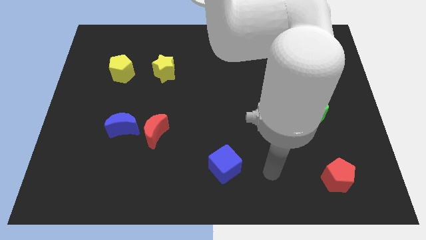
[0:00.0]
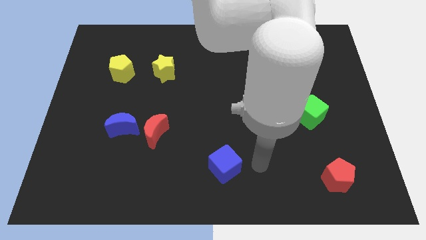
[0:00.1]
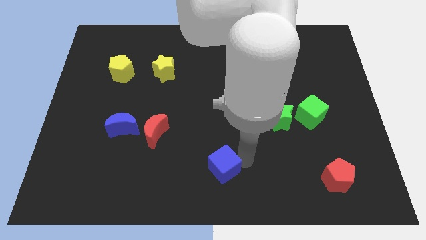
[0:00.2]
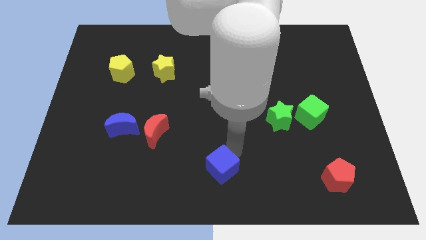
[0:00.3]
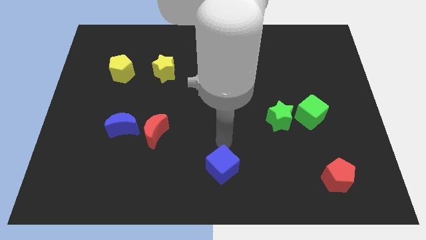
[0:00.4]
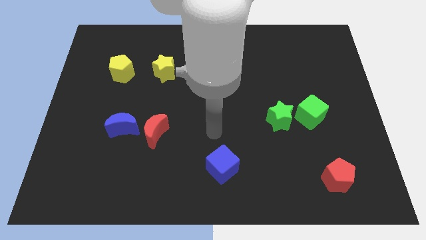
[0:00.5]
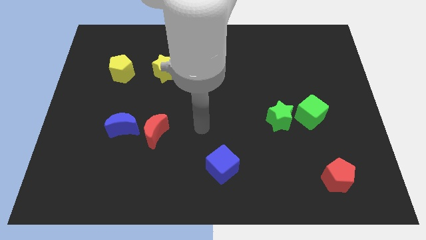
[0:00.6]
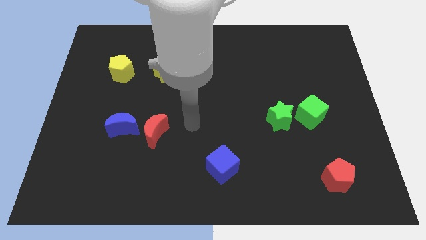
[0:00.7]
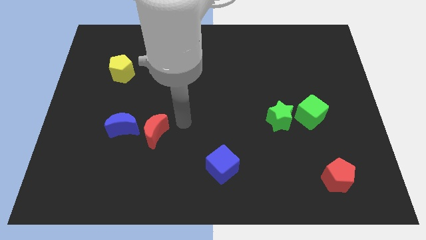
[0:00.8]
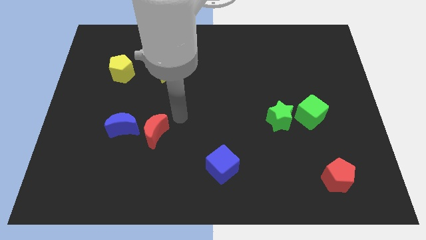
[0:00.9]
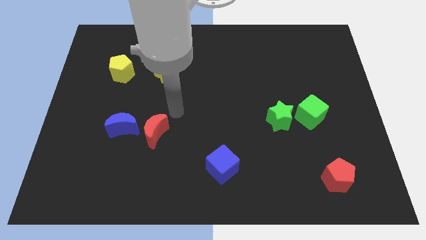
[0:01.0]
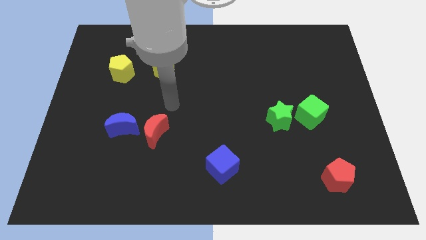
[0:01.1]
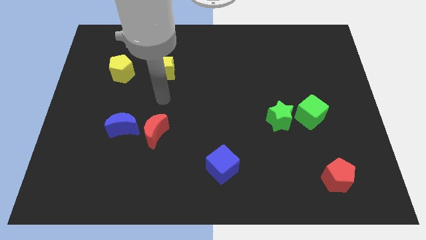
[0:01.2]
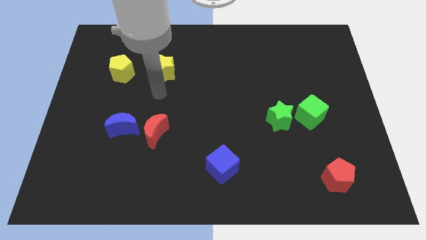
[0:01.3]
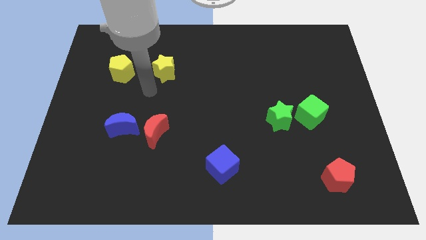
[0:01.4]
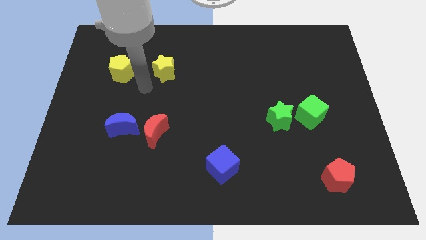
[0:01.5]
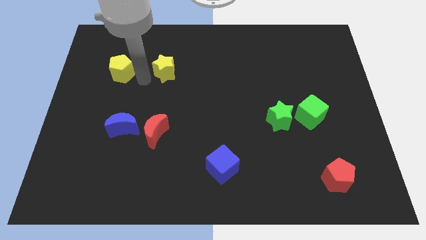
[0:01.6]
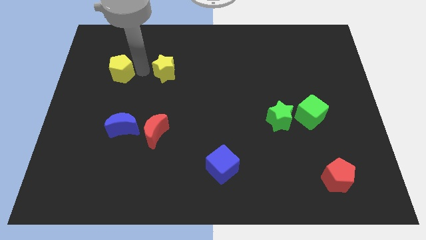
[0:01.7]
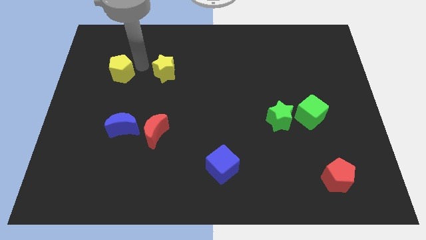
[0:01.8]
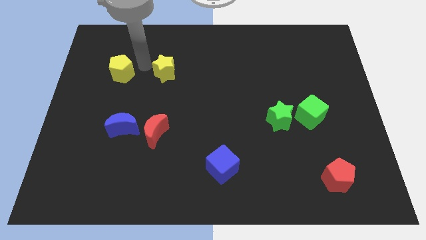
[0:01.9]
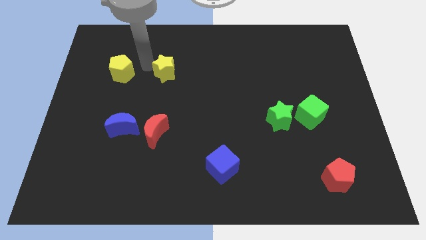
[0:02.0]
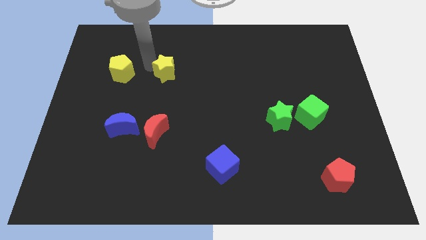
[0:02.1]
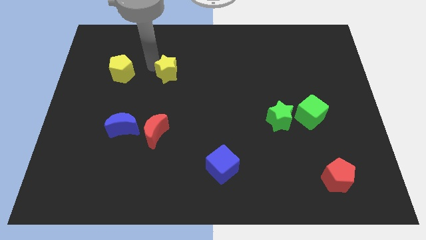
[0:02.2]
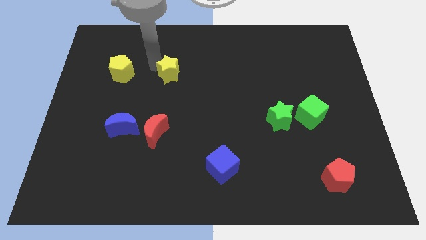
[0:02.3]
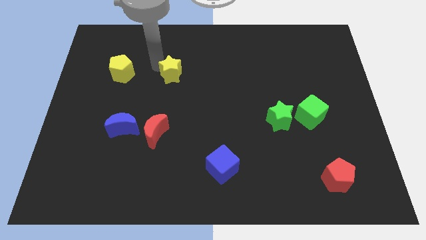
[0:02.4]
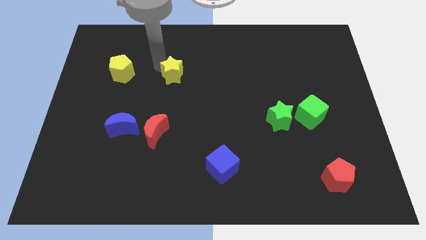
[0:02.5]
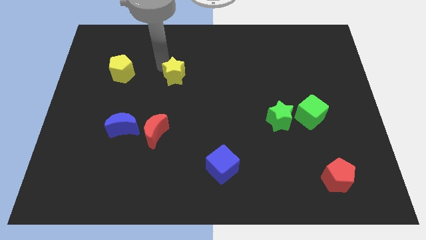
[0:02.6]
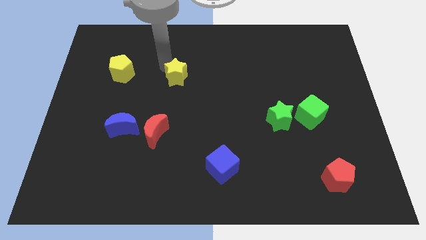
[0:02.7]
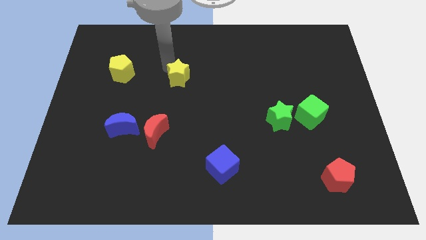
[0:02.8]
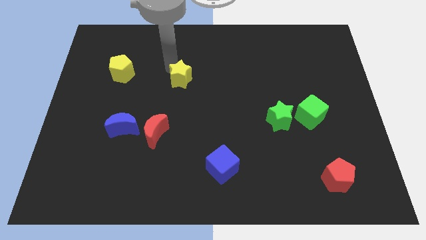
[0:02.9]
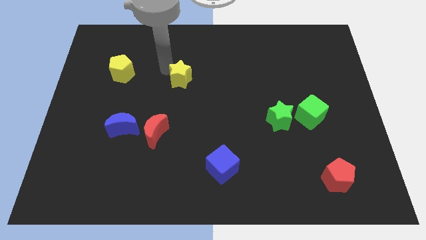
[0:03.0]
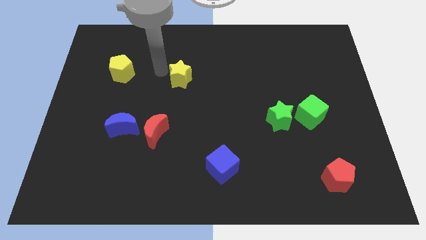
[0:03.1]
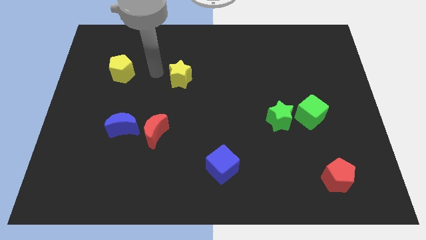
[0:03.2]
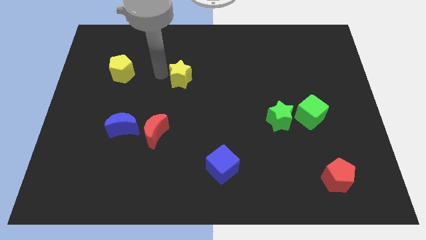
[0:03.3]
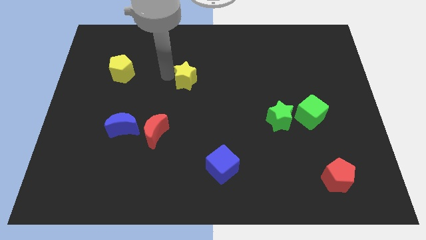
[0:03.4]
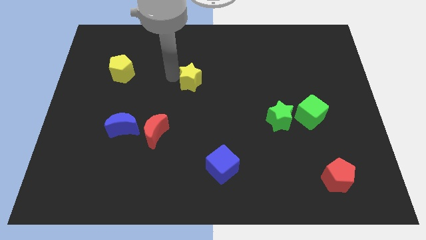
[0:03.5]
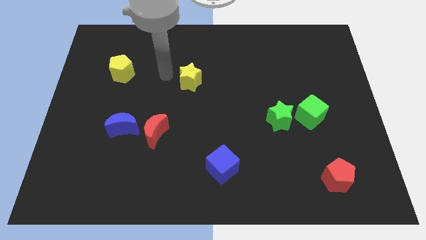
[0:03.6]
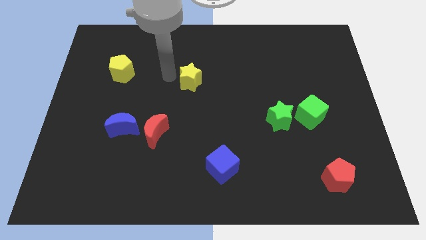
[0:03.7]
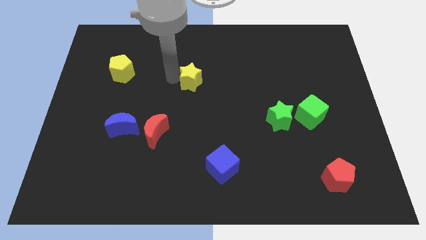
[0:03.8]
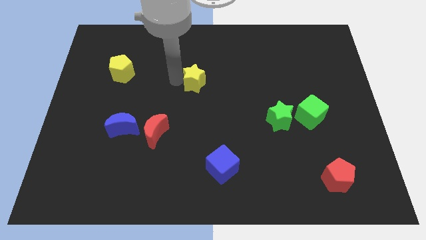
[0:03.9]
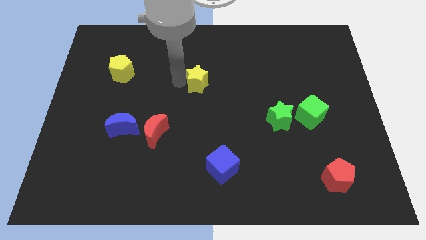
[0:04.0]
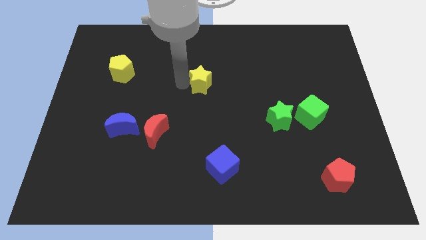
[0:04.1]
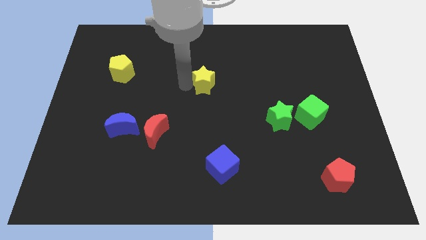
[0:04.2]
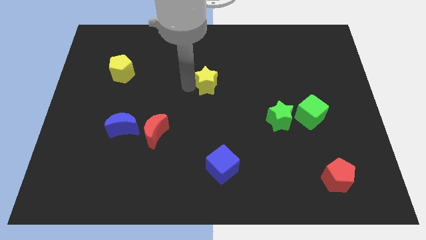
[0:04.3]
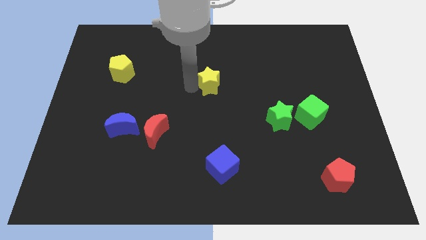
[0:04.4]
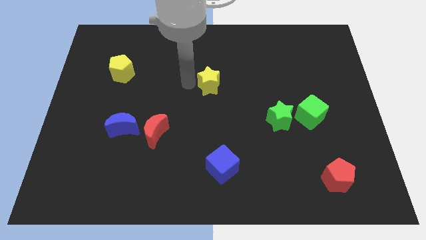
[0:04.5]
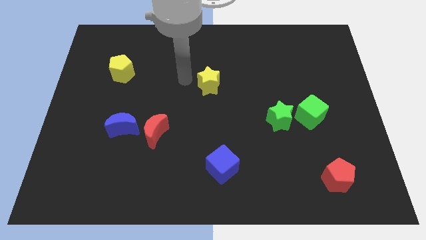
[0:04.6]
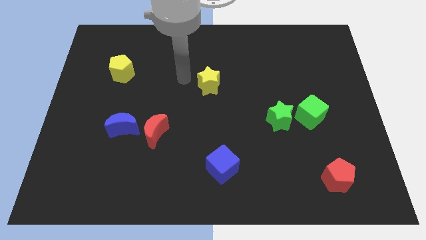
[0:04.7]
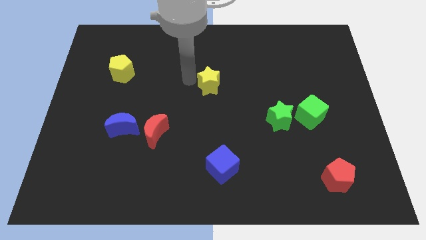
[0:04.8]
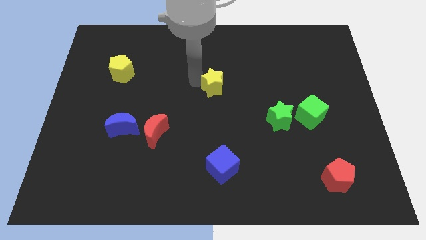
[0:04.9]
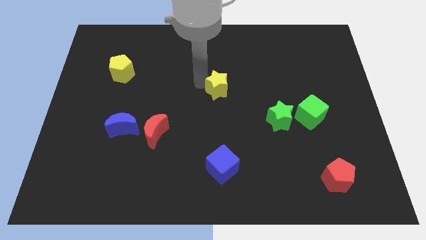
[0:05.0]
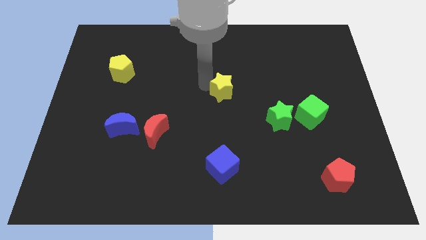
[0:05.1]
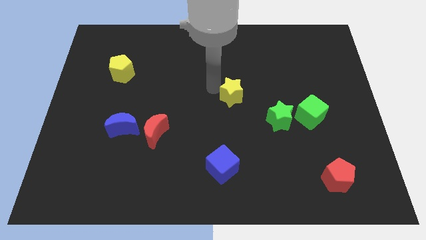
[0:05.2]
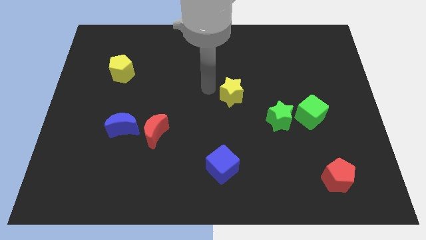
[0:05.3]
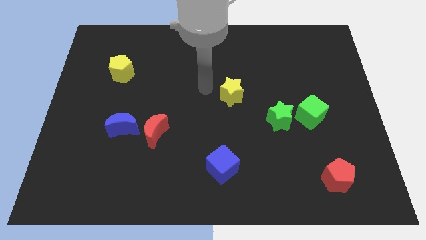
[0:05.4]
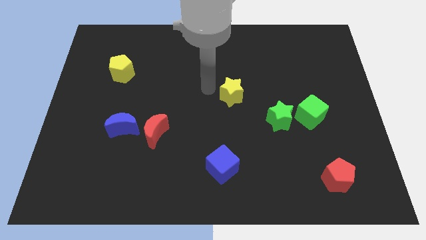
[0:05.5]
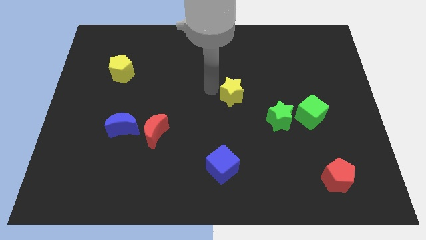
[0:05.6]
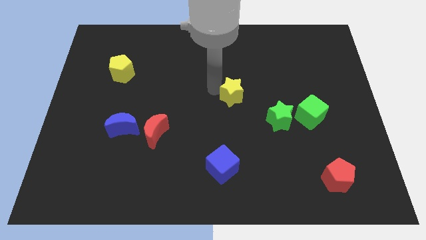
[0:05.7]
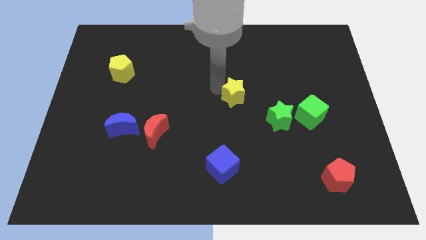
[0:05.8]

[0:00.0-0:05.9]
slide the yellow star diagonally up and to the left of the green star
